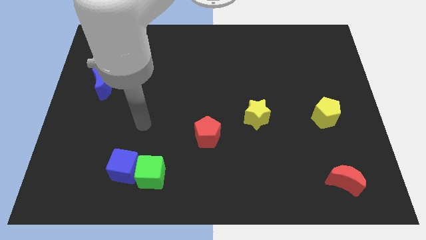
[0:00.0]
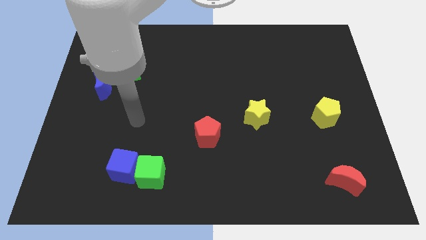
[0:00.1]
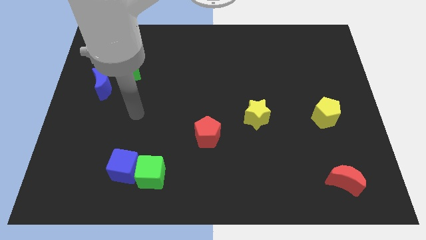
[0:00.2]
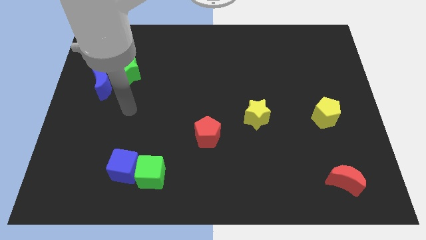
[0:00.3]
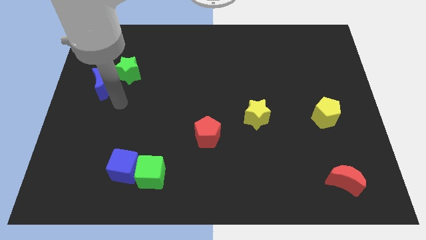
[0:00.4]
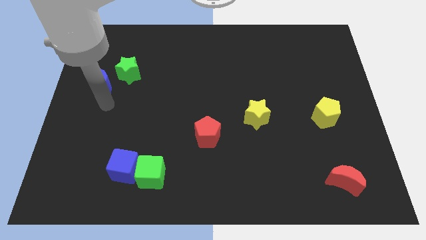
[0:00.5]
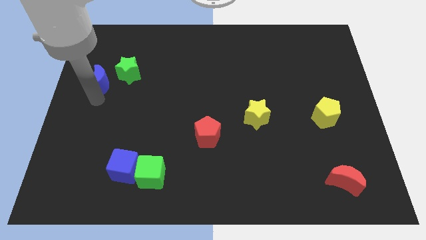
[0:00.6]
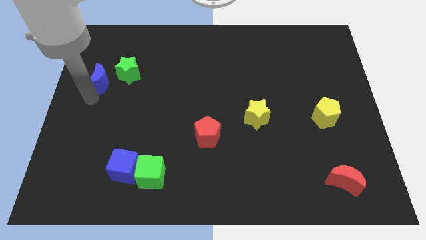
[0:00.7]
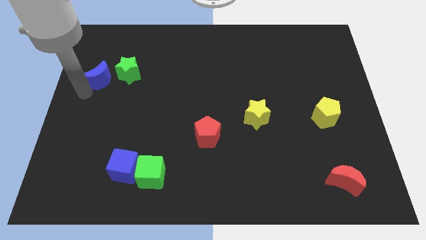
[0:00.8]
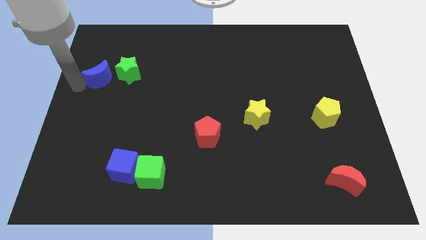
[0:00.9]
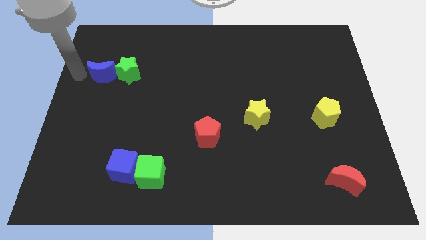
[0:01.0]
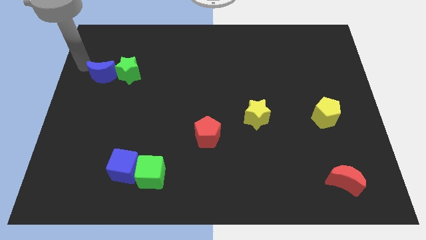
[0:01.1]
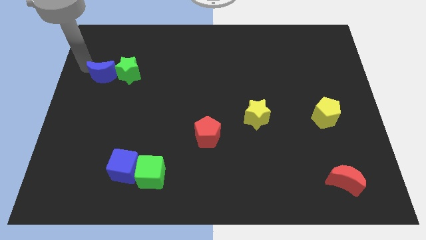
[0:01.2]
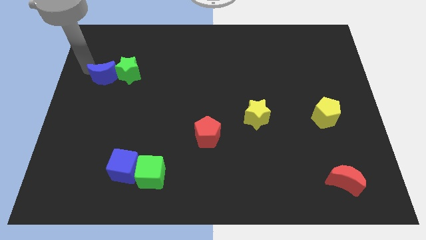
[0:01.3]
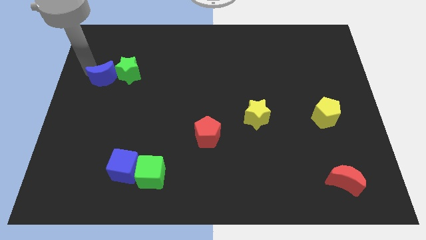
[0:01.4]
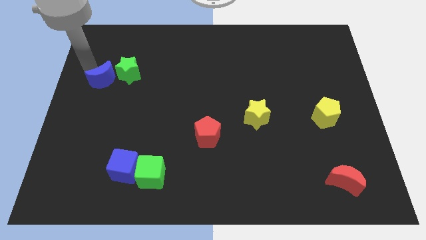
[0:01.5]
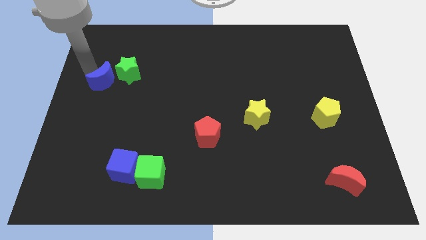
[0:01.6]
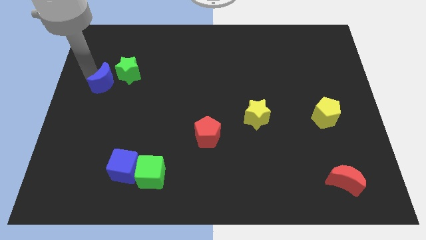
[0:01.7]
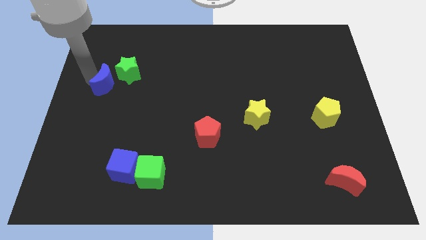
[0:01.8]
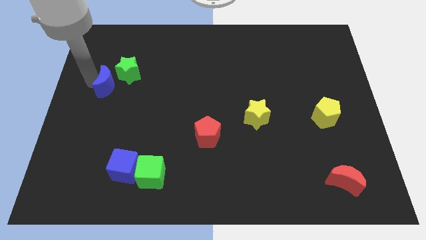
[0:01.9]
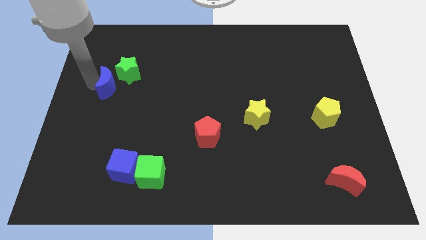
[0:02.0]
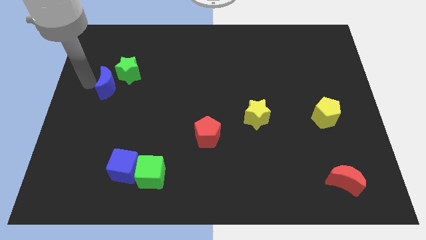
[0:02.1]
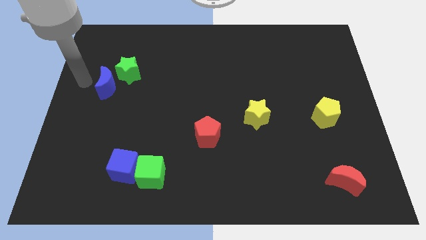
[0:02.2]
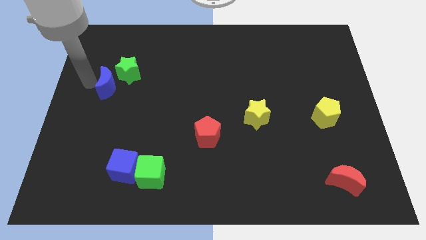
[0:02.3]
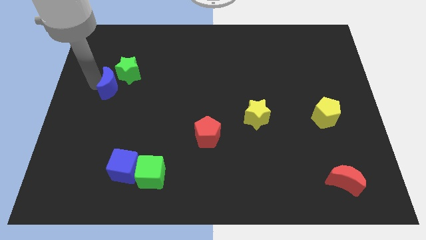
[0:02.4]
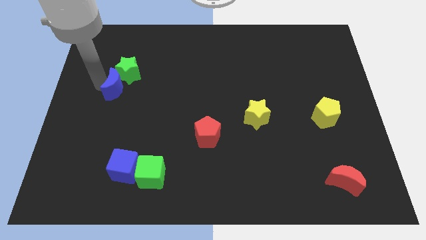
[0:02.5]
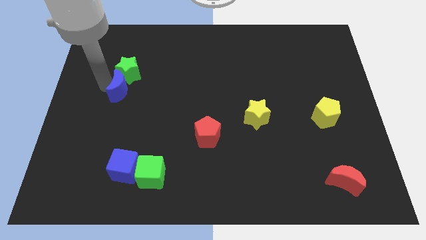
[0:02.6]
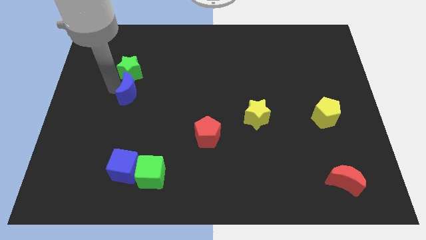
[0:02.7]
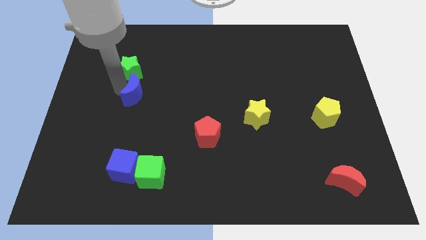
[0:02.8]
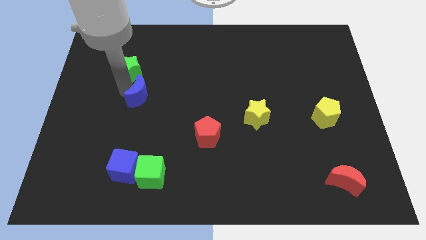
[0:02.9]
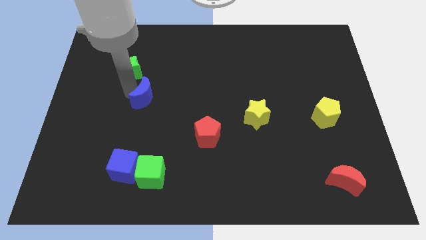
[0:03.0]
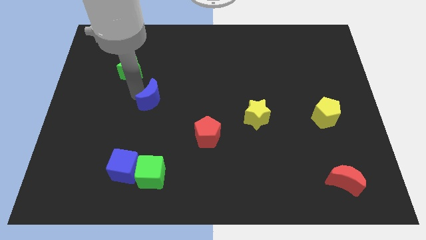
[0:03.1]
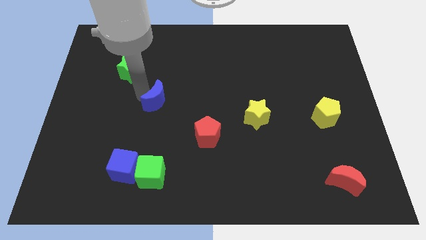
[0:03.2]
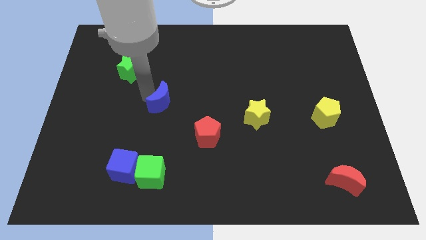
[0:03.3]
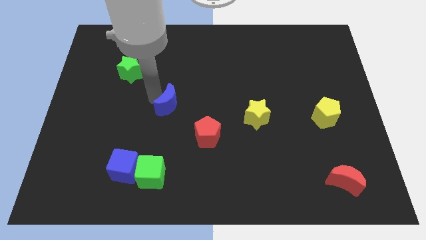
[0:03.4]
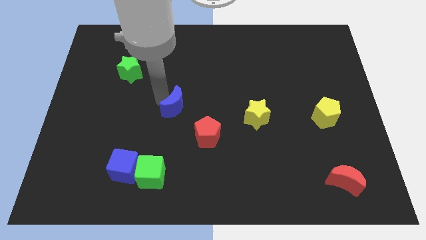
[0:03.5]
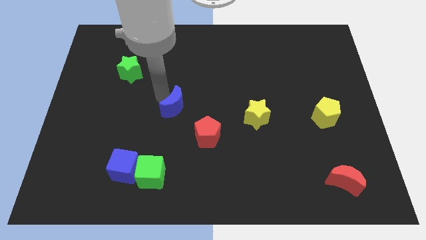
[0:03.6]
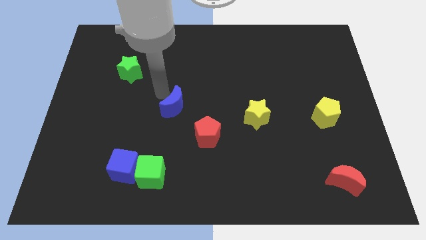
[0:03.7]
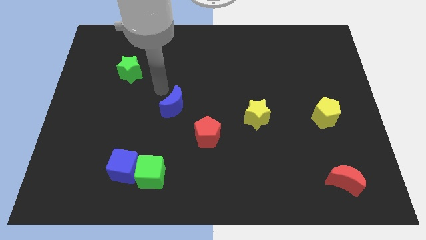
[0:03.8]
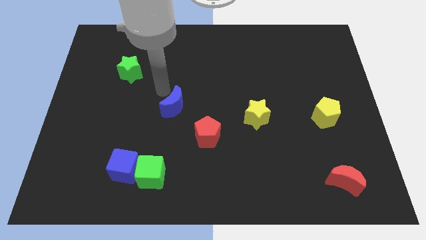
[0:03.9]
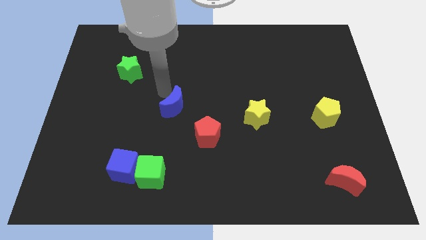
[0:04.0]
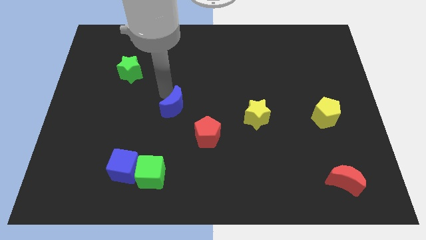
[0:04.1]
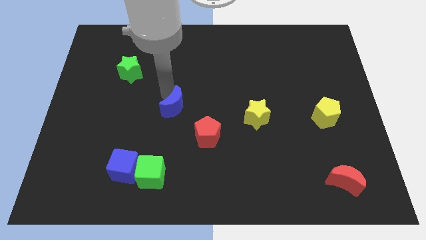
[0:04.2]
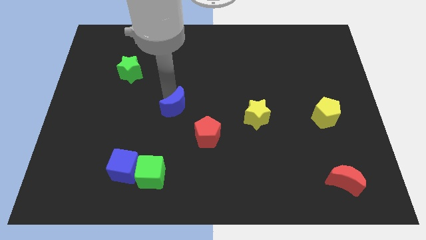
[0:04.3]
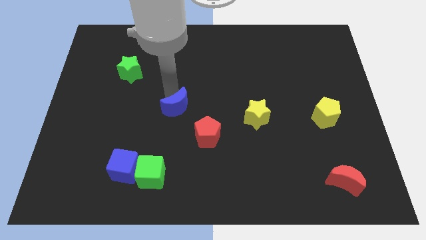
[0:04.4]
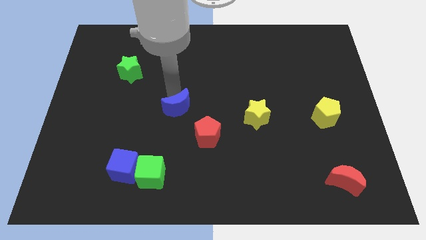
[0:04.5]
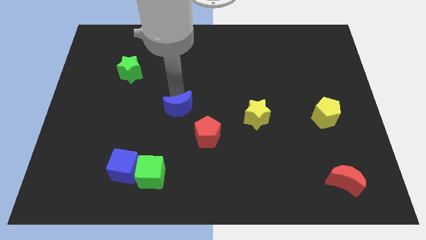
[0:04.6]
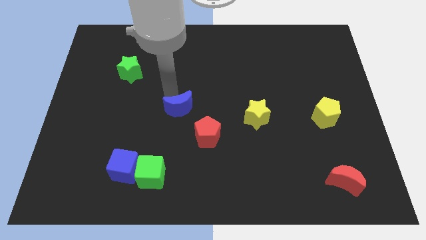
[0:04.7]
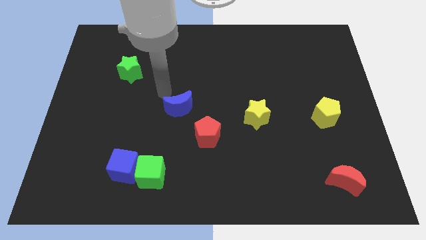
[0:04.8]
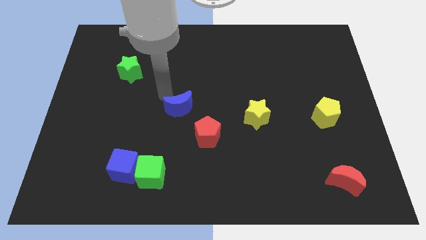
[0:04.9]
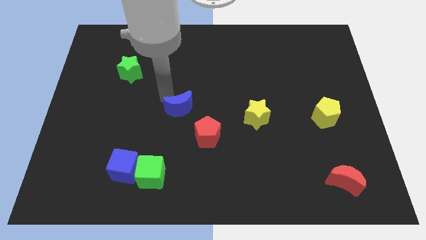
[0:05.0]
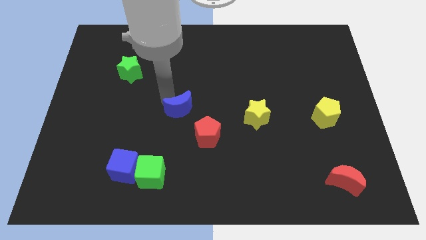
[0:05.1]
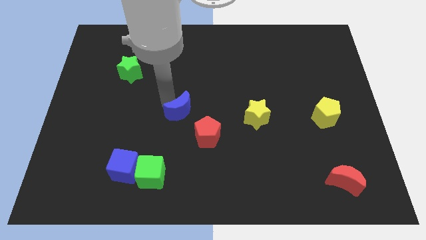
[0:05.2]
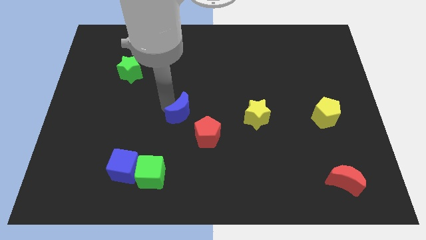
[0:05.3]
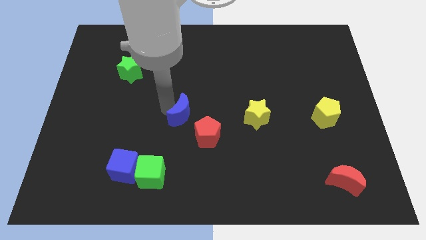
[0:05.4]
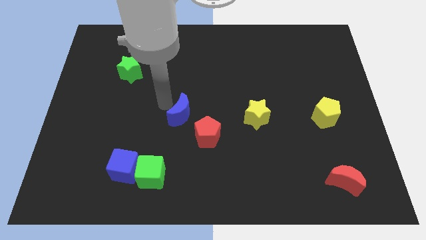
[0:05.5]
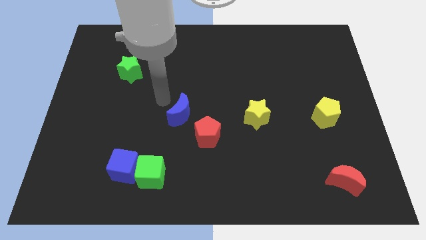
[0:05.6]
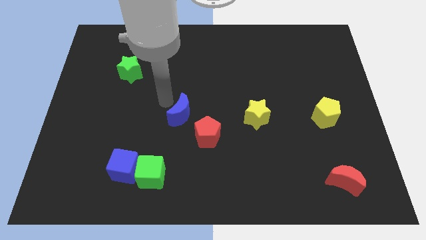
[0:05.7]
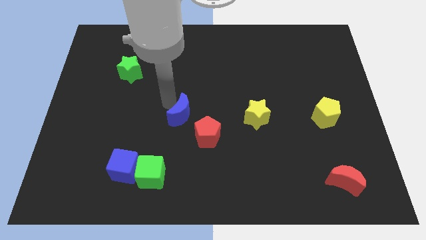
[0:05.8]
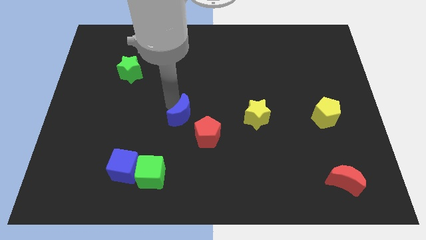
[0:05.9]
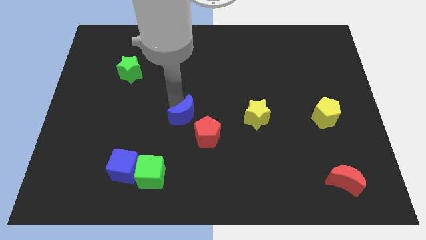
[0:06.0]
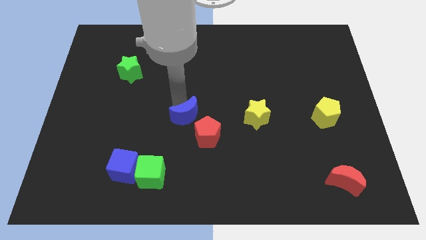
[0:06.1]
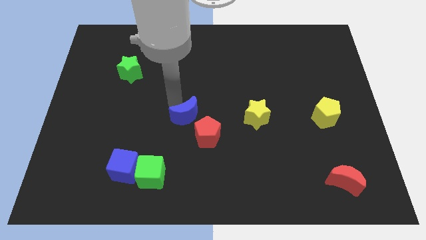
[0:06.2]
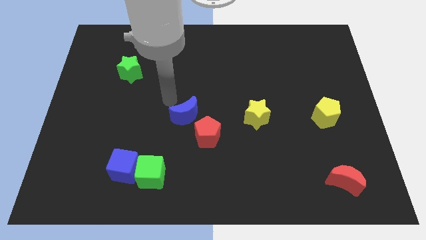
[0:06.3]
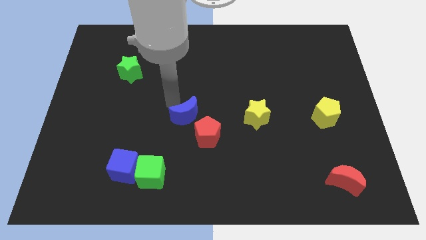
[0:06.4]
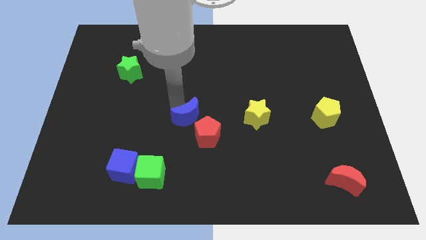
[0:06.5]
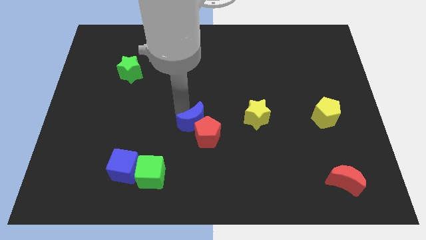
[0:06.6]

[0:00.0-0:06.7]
push the blue moon towards the red pentagon

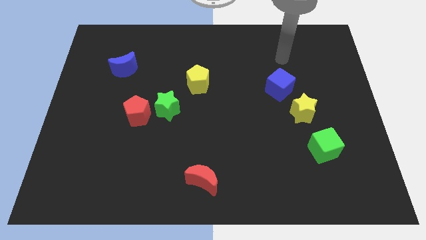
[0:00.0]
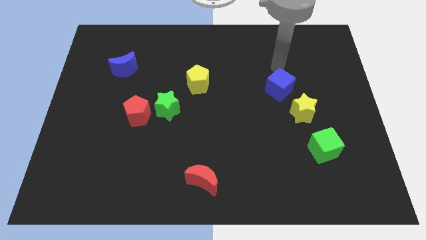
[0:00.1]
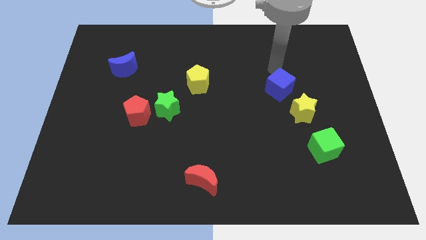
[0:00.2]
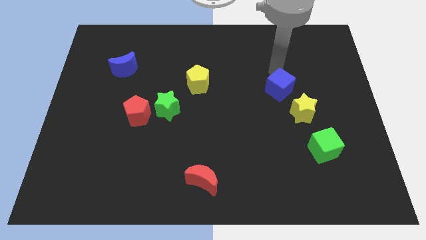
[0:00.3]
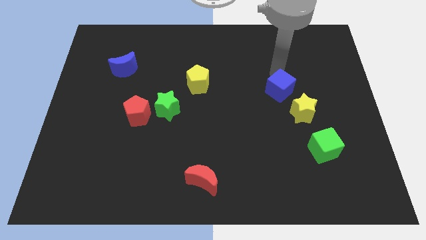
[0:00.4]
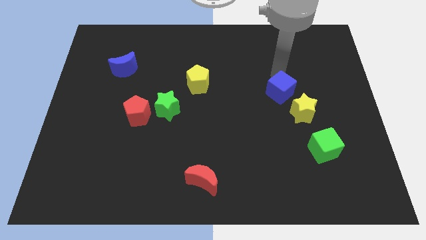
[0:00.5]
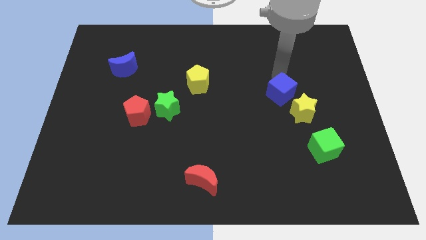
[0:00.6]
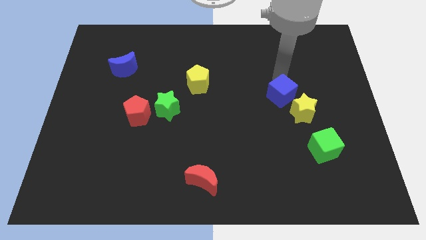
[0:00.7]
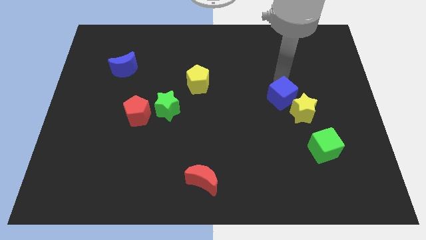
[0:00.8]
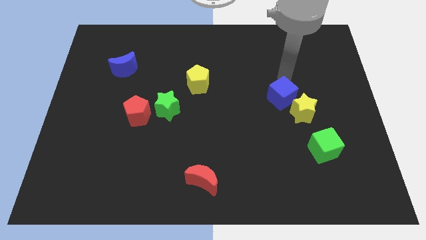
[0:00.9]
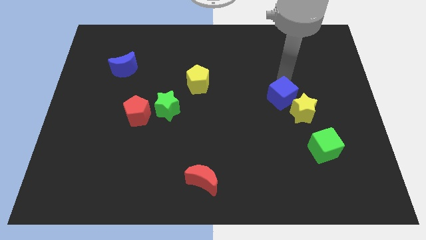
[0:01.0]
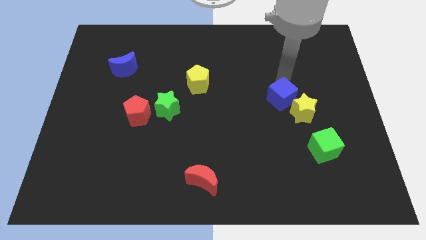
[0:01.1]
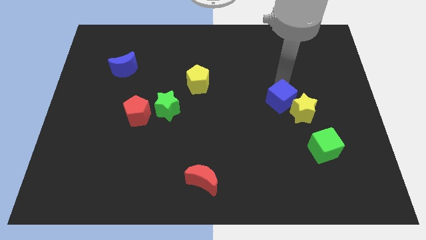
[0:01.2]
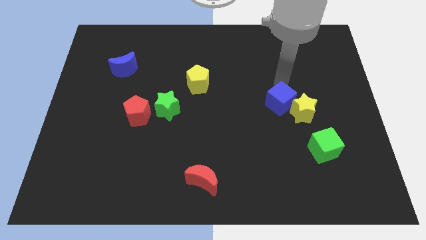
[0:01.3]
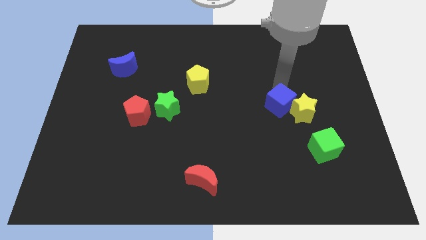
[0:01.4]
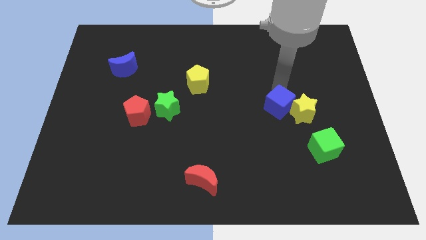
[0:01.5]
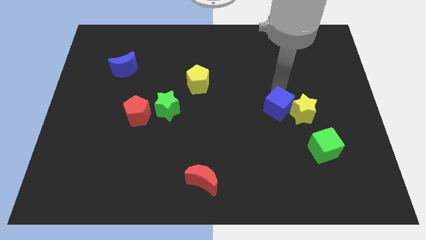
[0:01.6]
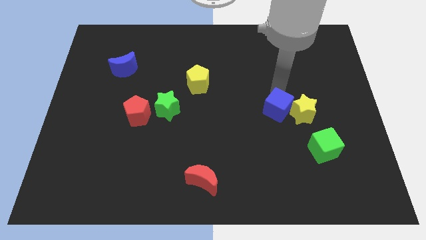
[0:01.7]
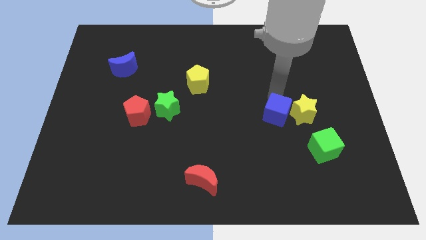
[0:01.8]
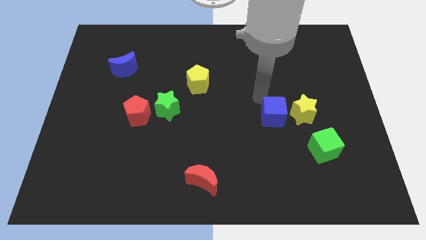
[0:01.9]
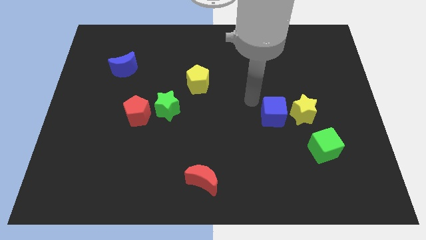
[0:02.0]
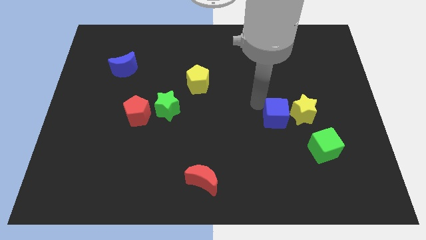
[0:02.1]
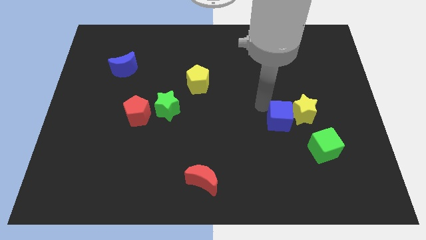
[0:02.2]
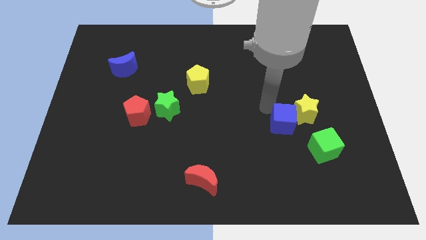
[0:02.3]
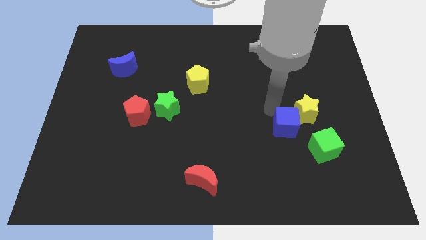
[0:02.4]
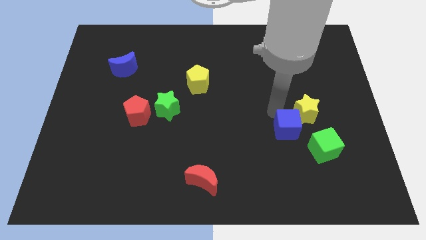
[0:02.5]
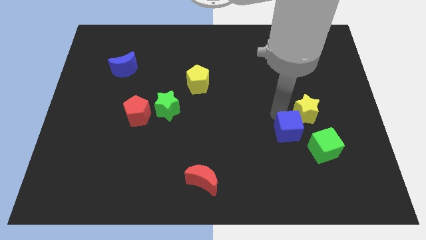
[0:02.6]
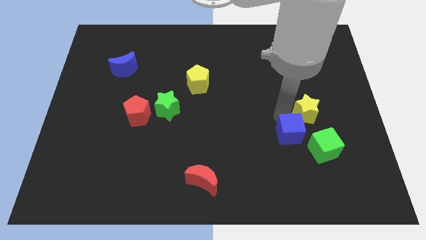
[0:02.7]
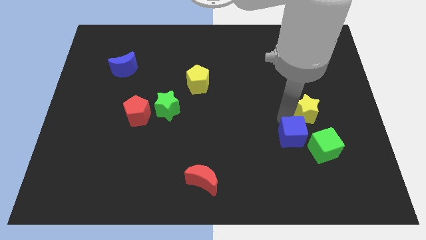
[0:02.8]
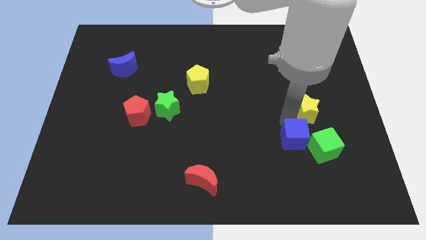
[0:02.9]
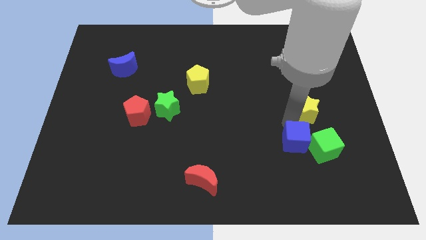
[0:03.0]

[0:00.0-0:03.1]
push the blue cube to the green cube
